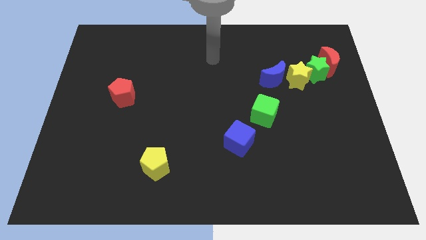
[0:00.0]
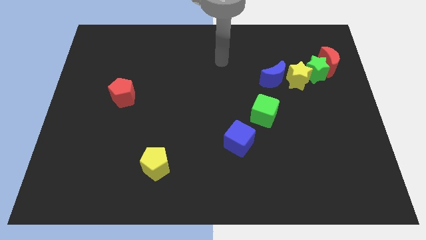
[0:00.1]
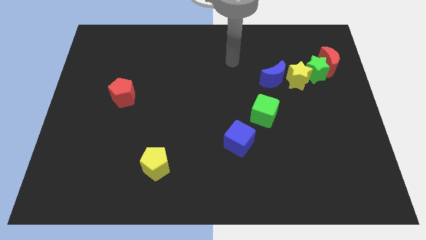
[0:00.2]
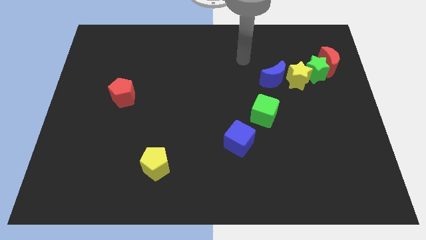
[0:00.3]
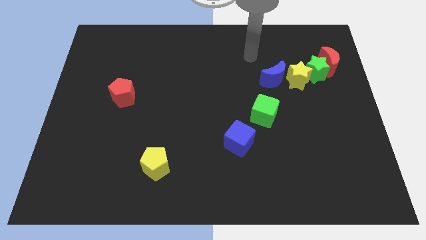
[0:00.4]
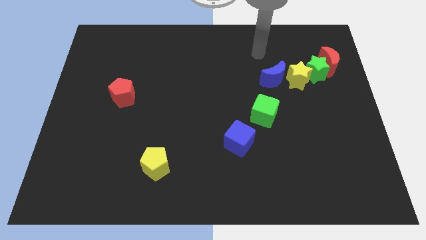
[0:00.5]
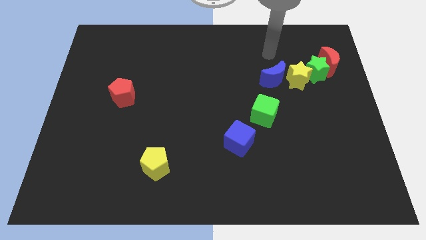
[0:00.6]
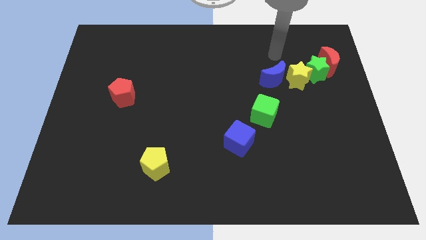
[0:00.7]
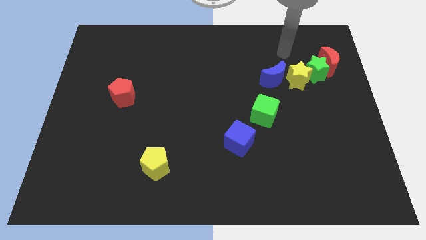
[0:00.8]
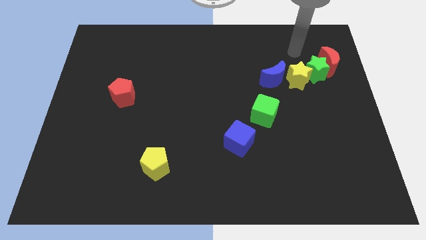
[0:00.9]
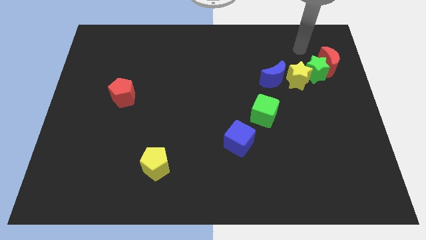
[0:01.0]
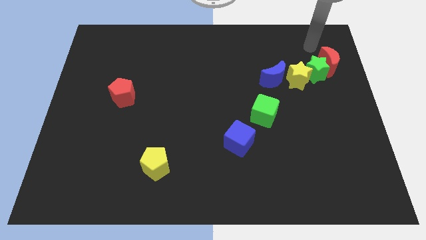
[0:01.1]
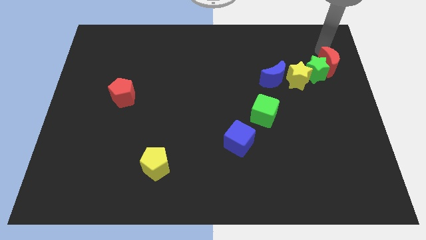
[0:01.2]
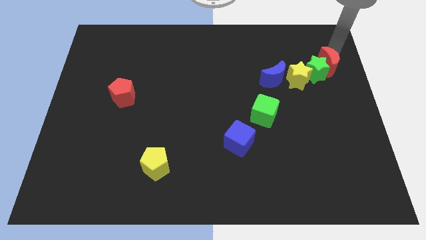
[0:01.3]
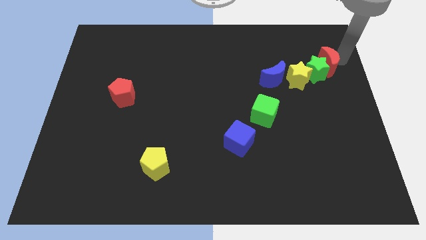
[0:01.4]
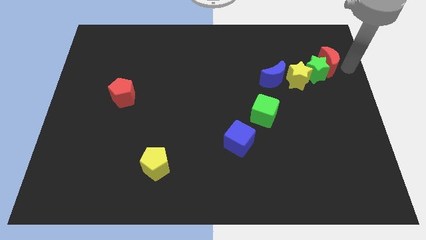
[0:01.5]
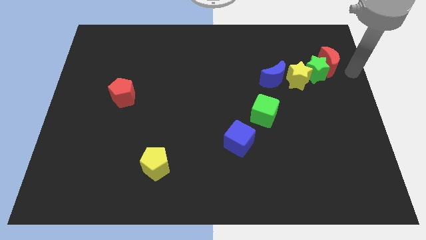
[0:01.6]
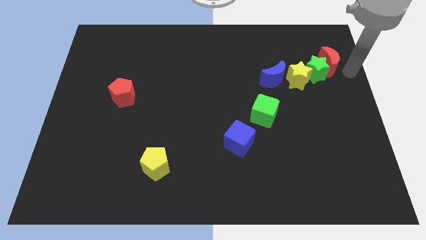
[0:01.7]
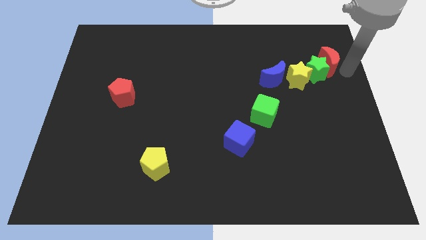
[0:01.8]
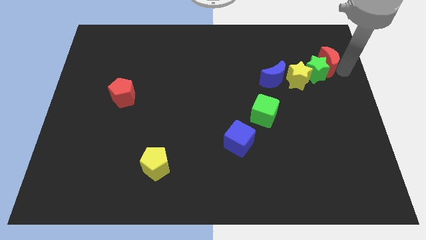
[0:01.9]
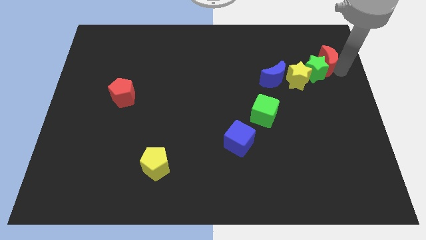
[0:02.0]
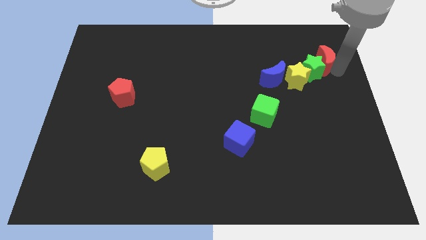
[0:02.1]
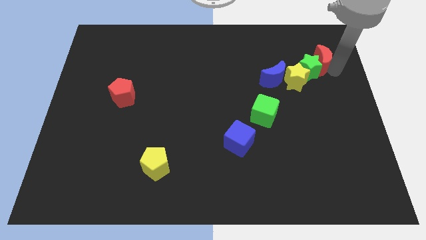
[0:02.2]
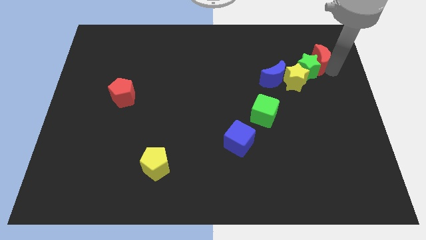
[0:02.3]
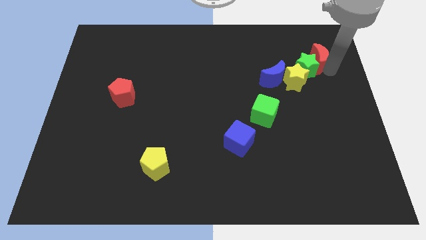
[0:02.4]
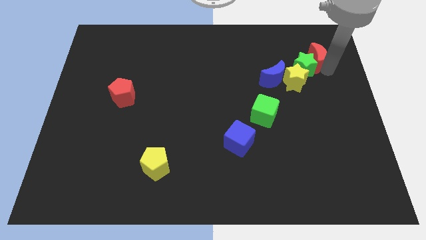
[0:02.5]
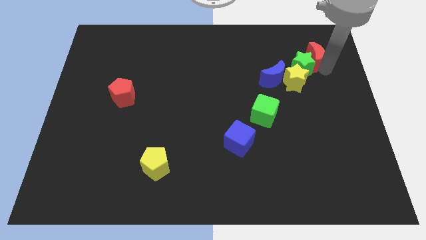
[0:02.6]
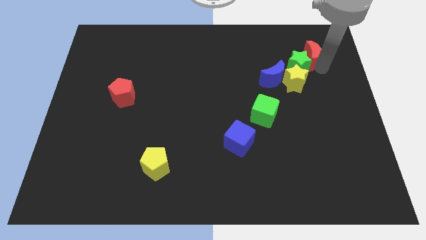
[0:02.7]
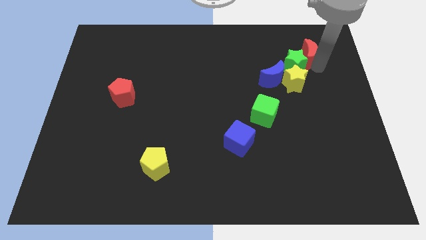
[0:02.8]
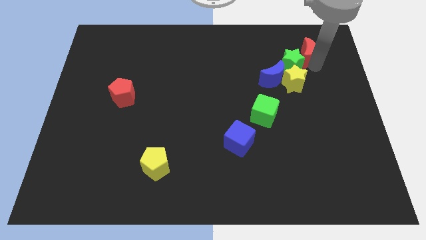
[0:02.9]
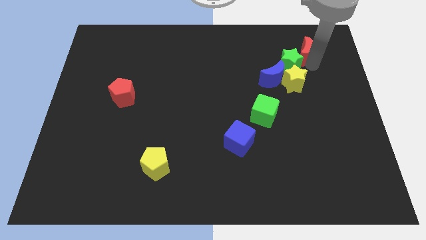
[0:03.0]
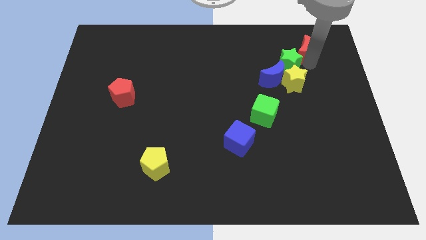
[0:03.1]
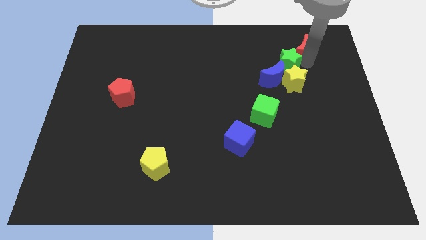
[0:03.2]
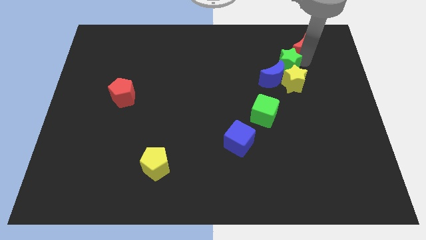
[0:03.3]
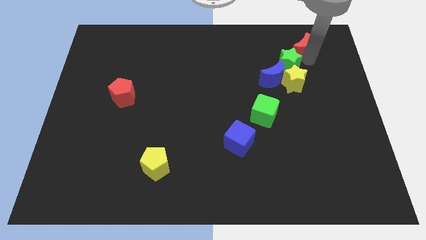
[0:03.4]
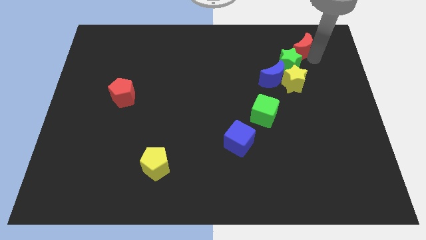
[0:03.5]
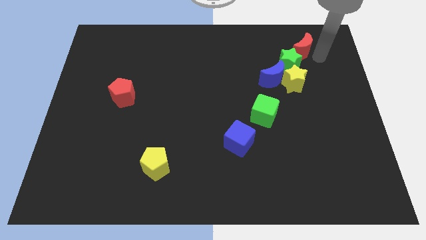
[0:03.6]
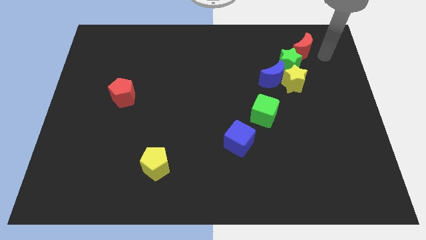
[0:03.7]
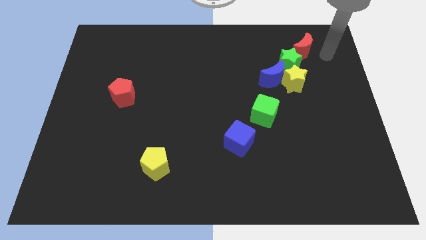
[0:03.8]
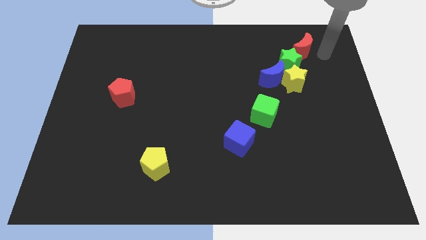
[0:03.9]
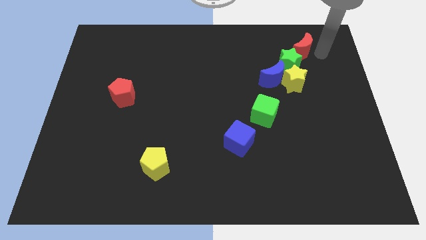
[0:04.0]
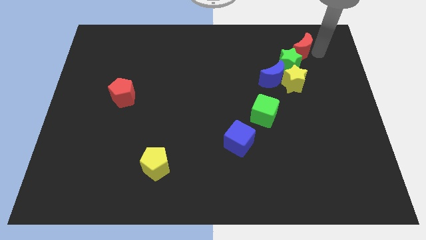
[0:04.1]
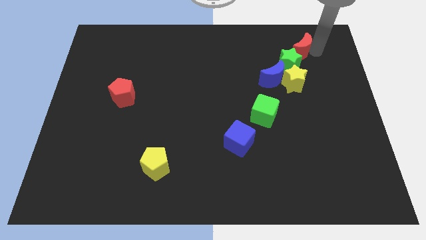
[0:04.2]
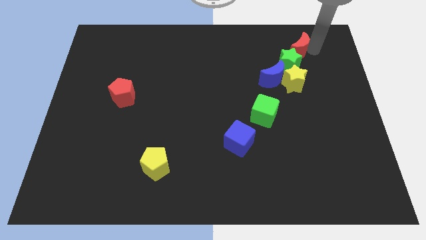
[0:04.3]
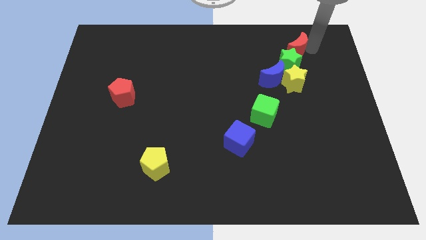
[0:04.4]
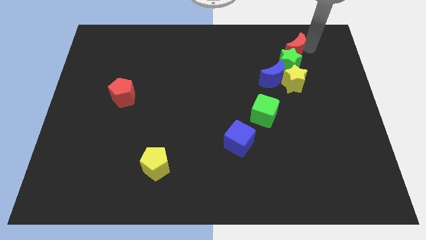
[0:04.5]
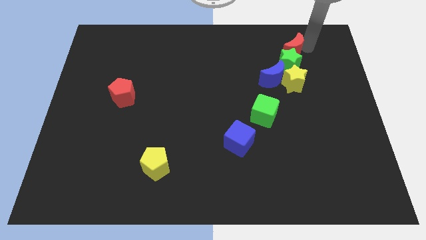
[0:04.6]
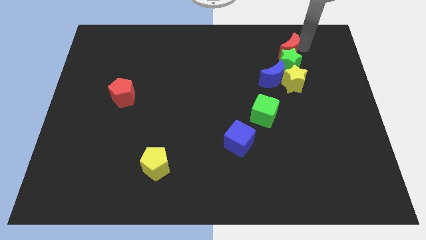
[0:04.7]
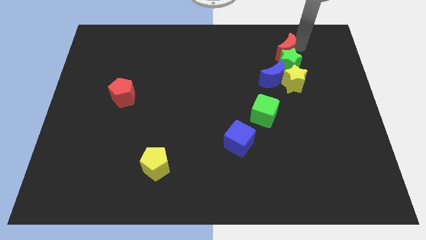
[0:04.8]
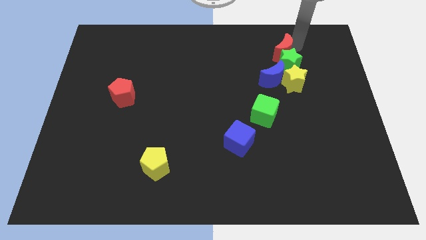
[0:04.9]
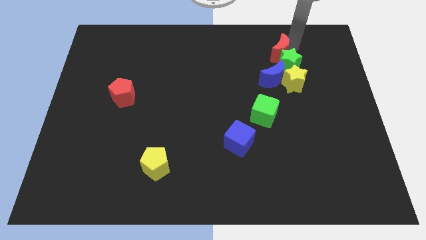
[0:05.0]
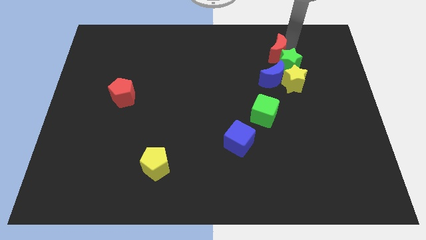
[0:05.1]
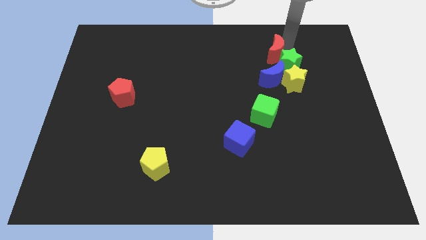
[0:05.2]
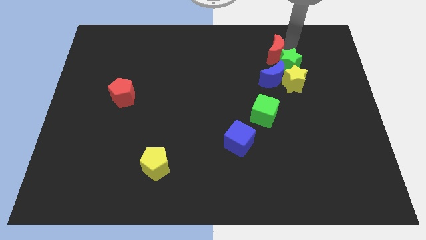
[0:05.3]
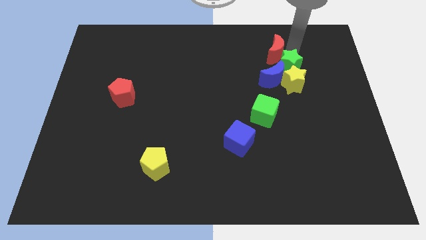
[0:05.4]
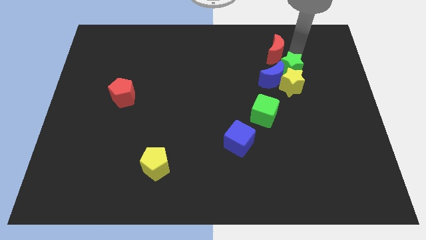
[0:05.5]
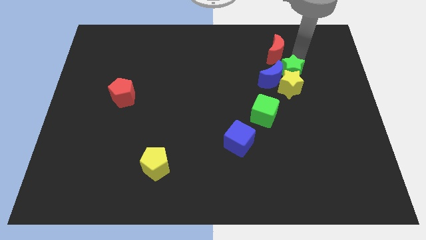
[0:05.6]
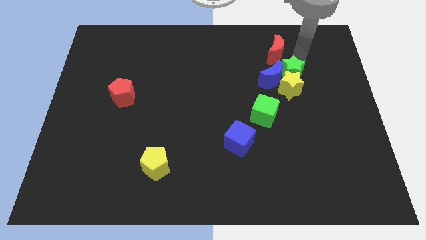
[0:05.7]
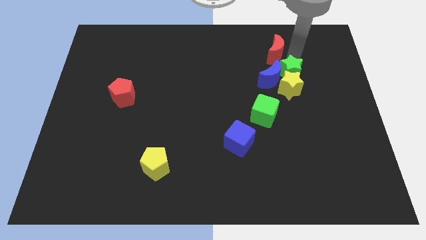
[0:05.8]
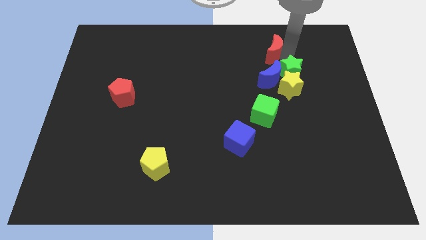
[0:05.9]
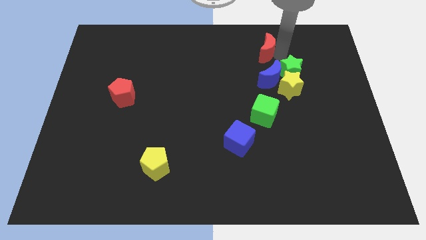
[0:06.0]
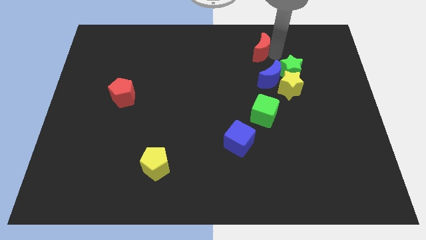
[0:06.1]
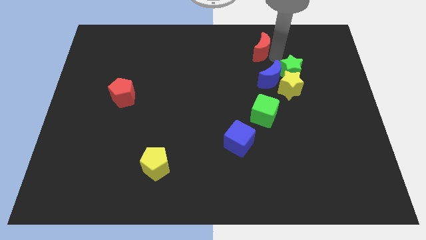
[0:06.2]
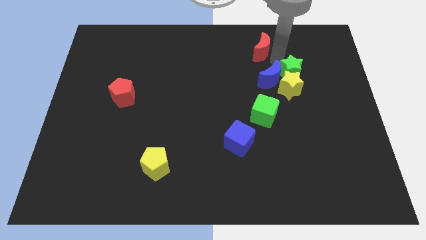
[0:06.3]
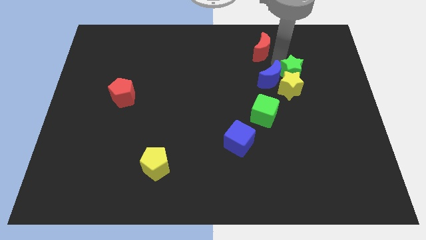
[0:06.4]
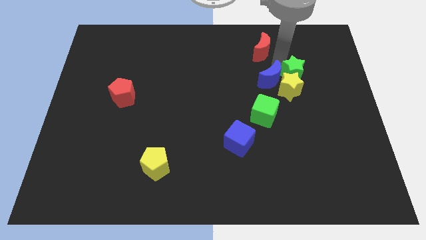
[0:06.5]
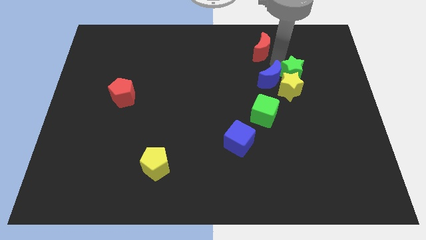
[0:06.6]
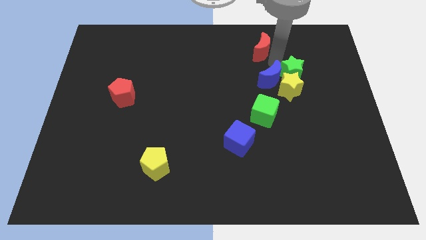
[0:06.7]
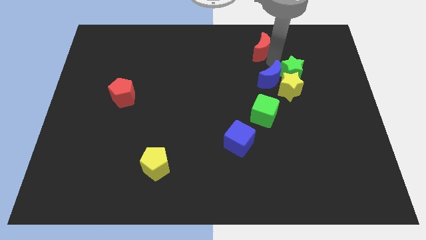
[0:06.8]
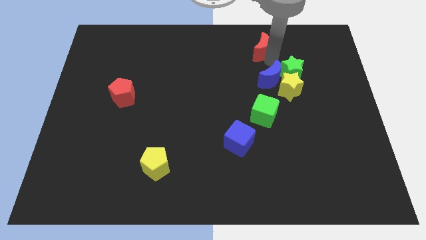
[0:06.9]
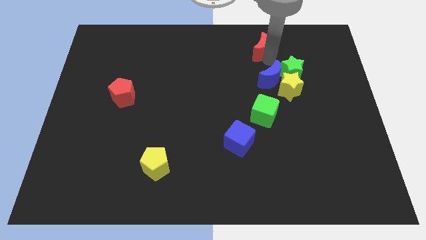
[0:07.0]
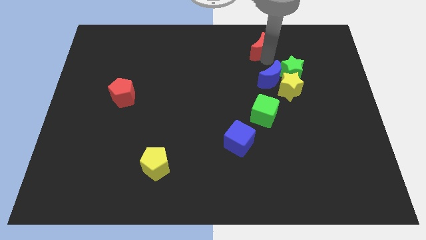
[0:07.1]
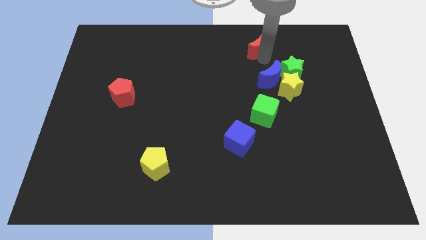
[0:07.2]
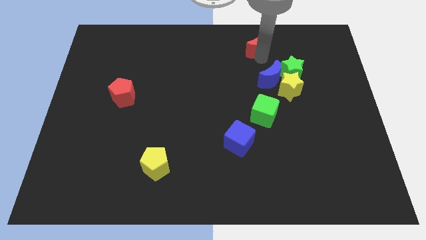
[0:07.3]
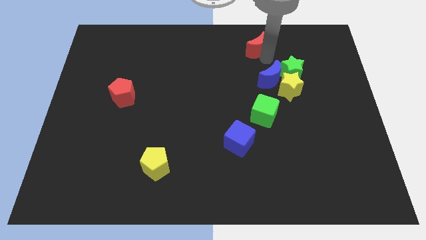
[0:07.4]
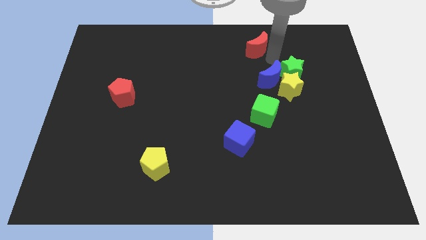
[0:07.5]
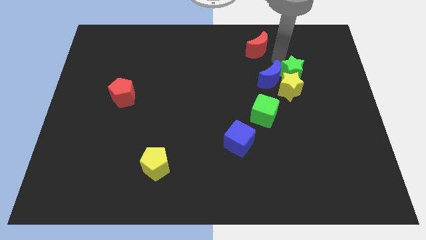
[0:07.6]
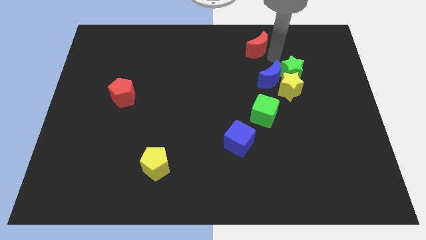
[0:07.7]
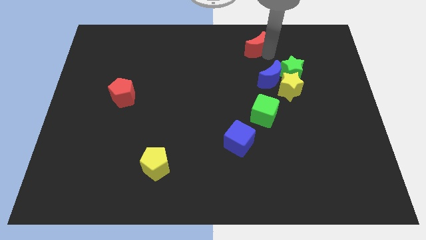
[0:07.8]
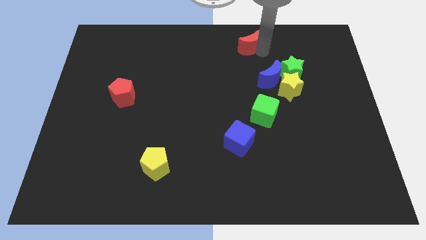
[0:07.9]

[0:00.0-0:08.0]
slide the red moon to the top
